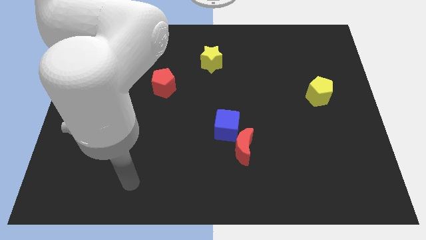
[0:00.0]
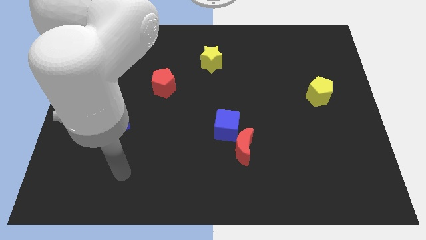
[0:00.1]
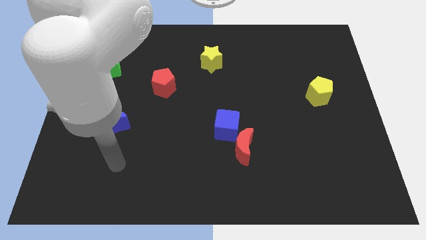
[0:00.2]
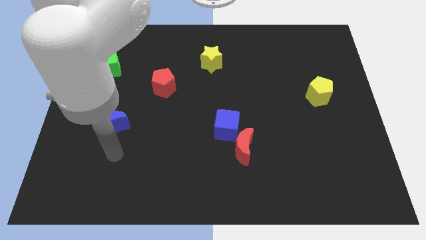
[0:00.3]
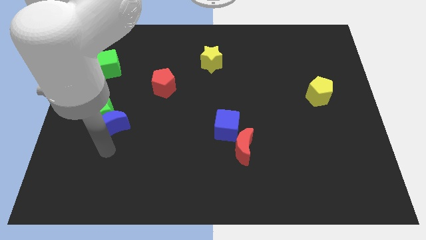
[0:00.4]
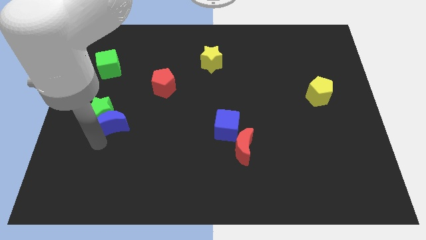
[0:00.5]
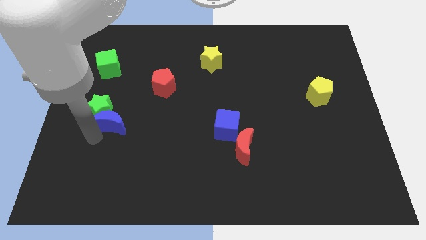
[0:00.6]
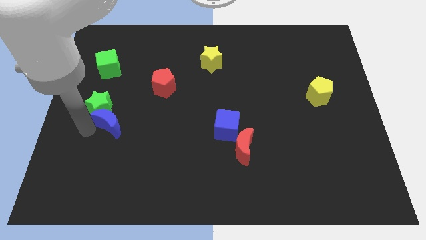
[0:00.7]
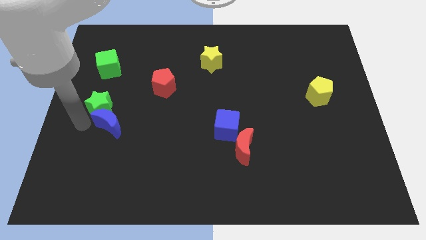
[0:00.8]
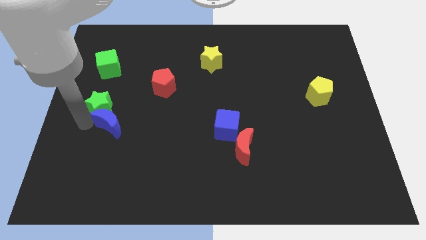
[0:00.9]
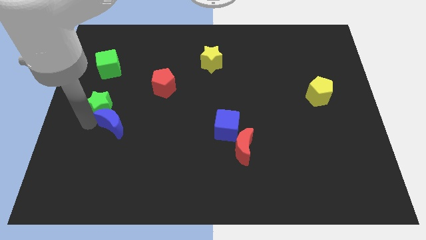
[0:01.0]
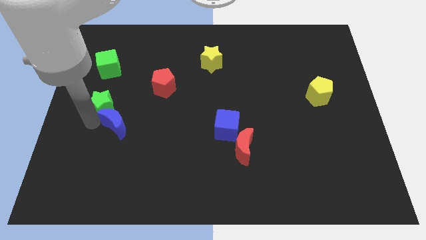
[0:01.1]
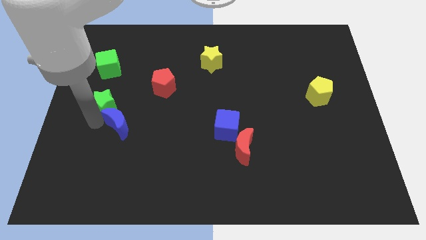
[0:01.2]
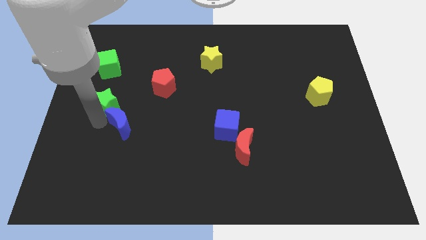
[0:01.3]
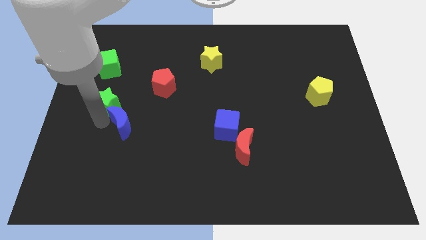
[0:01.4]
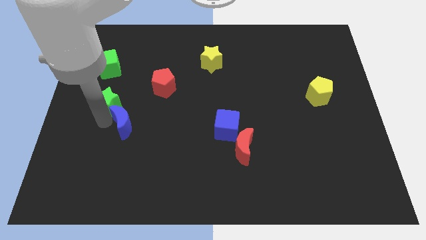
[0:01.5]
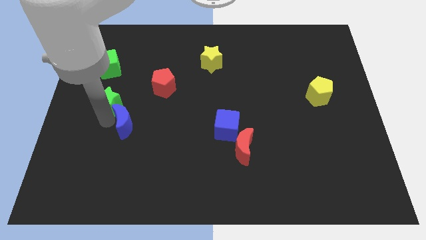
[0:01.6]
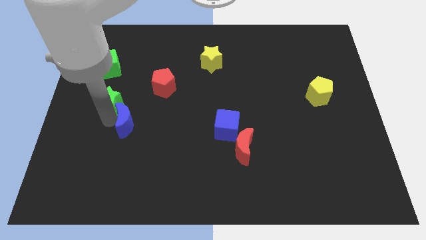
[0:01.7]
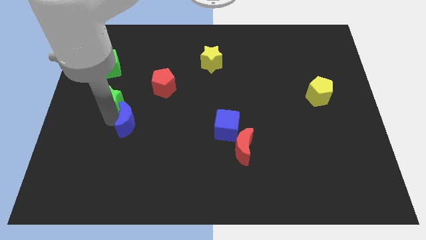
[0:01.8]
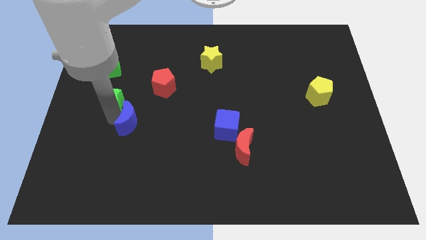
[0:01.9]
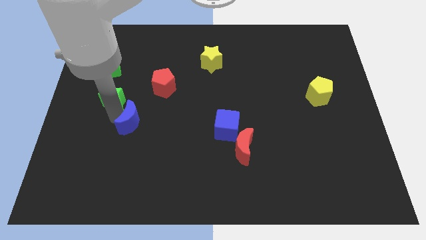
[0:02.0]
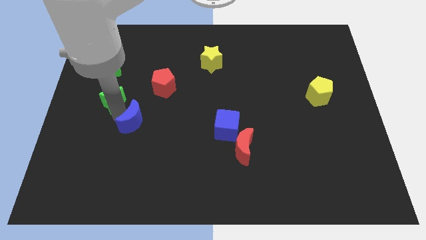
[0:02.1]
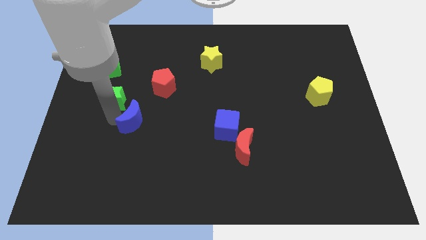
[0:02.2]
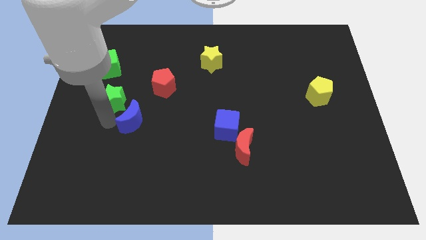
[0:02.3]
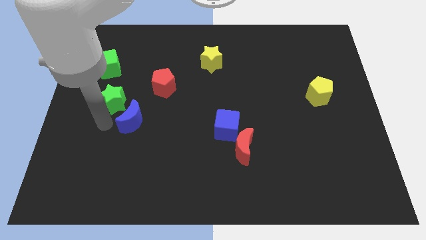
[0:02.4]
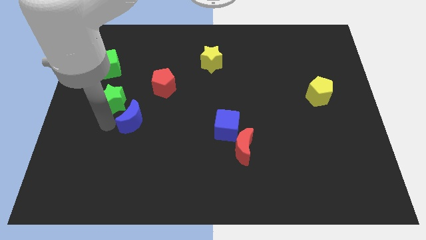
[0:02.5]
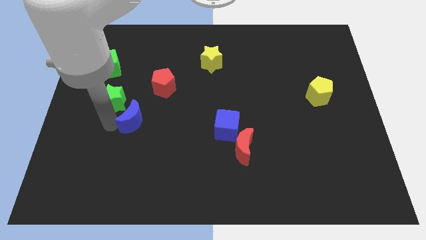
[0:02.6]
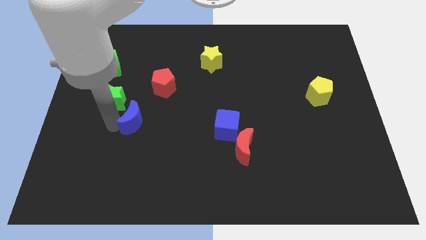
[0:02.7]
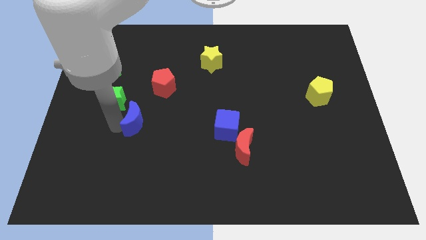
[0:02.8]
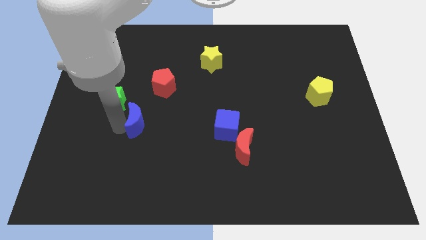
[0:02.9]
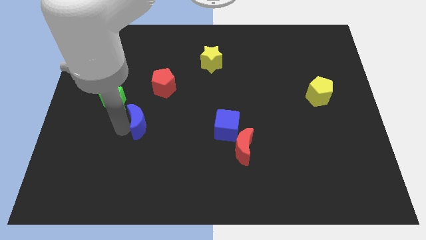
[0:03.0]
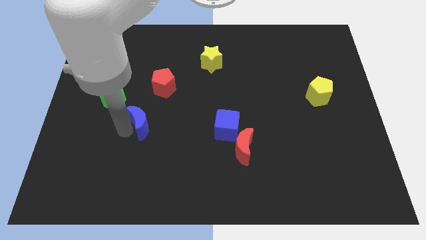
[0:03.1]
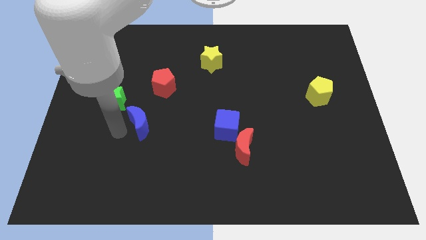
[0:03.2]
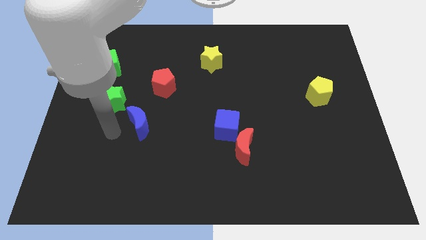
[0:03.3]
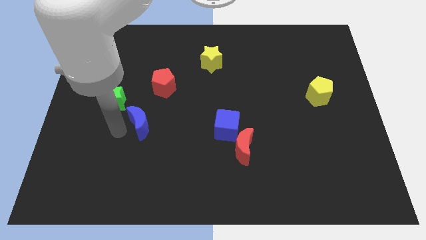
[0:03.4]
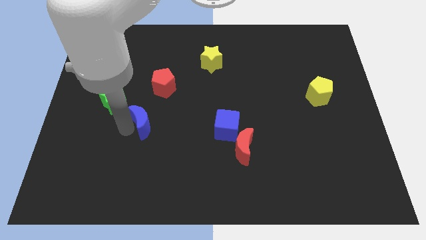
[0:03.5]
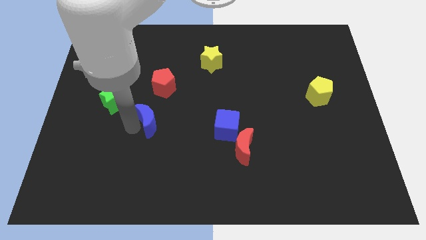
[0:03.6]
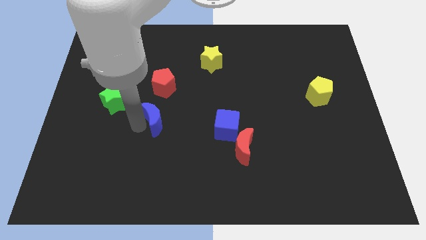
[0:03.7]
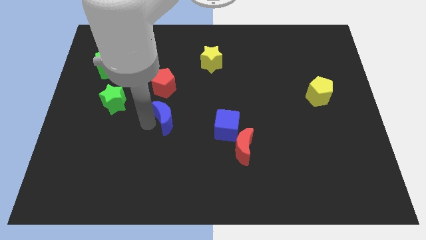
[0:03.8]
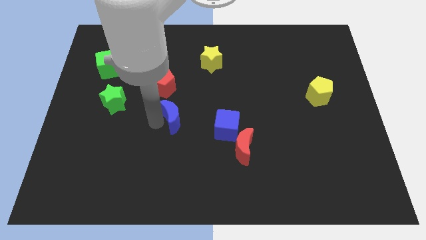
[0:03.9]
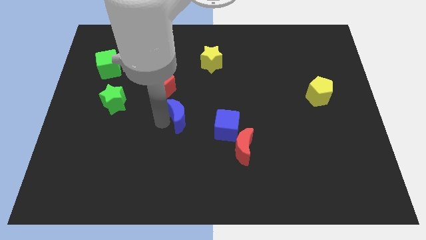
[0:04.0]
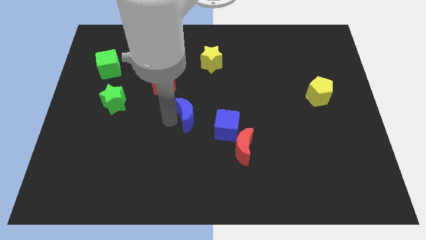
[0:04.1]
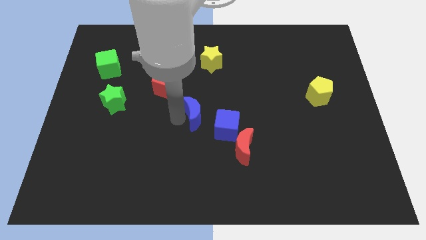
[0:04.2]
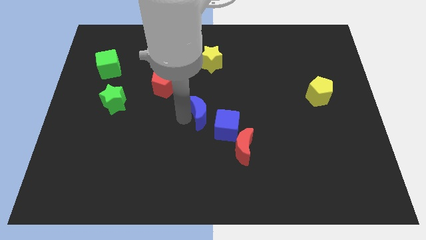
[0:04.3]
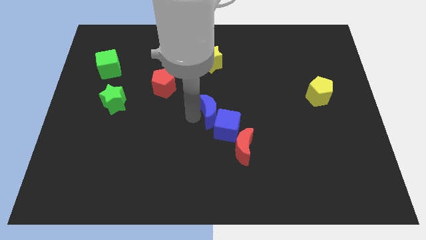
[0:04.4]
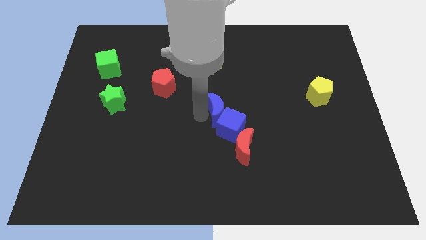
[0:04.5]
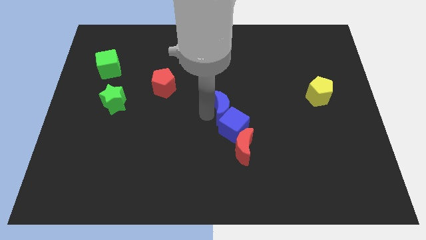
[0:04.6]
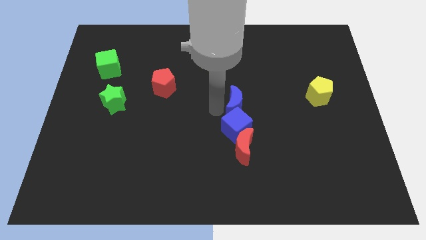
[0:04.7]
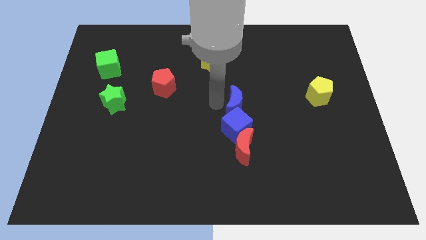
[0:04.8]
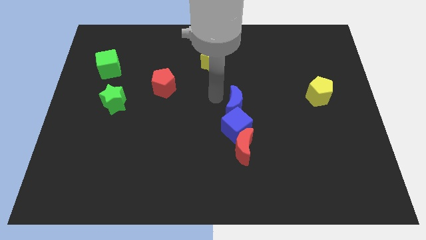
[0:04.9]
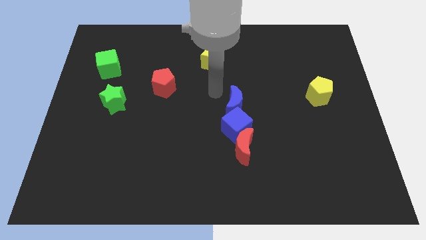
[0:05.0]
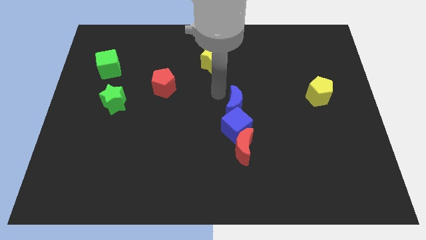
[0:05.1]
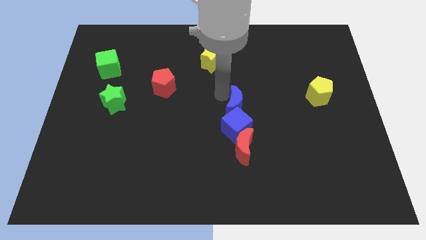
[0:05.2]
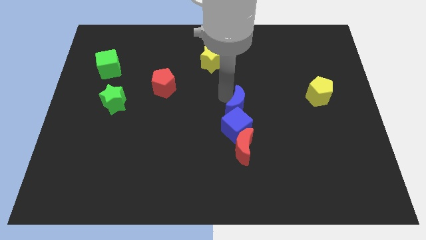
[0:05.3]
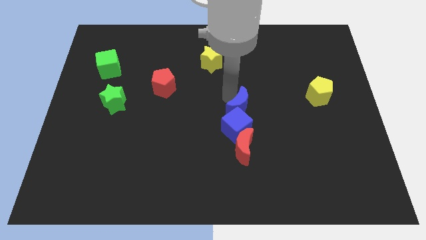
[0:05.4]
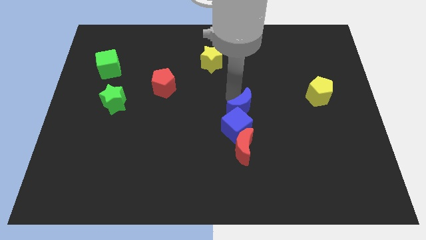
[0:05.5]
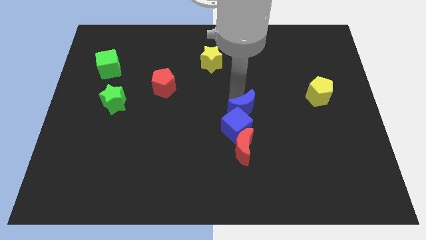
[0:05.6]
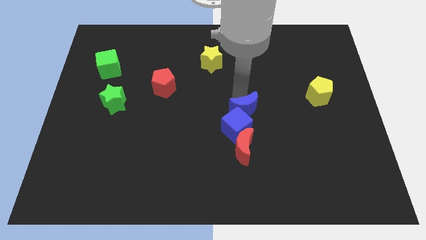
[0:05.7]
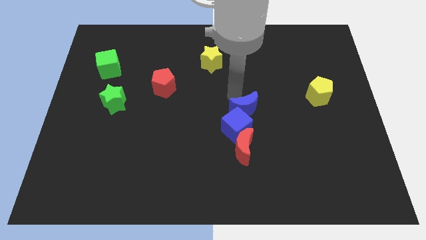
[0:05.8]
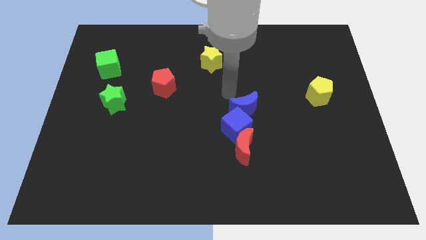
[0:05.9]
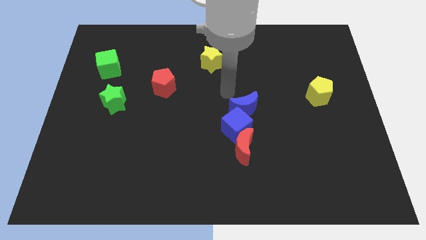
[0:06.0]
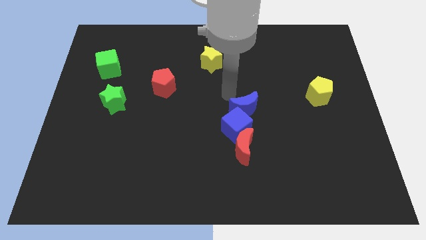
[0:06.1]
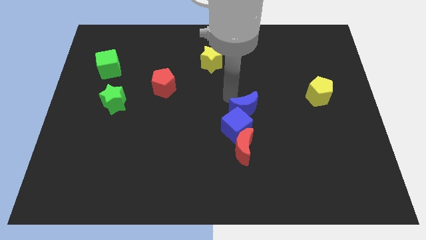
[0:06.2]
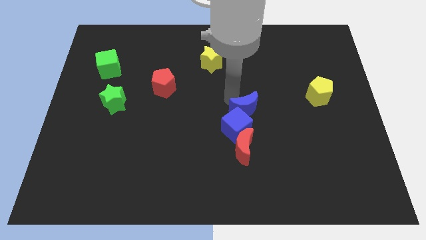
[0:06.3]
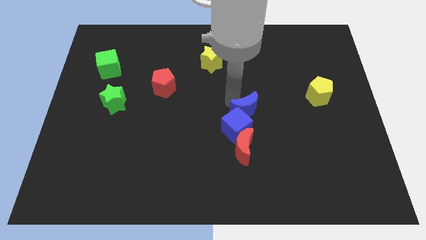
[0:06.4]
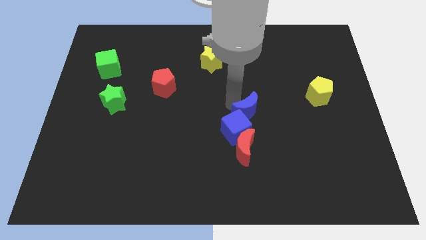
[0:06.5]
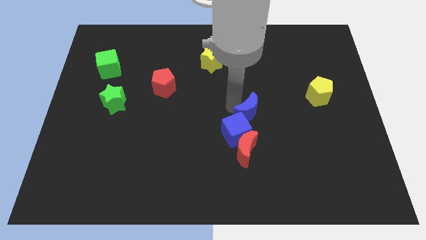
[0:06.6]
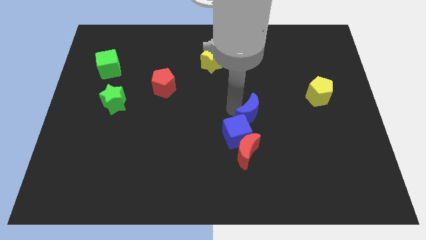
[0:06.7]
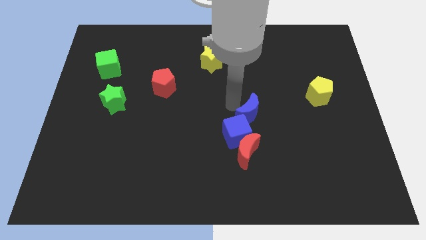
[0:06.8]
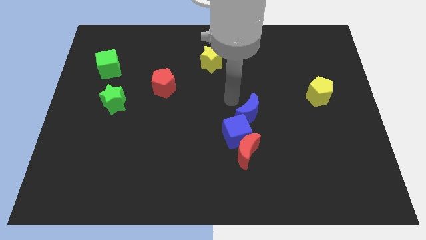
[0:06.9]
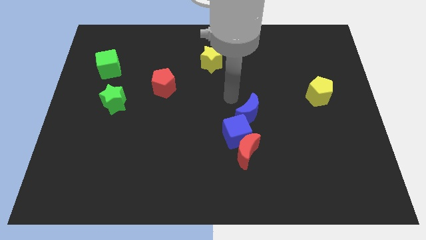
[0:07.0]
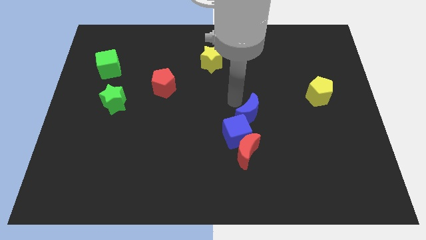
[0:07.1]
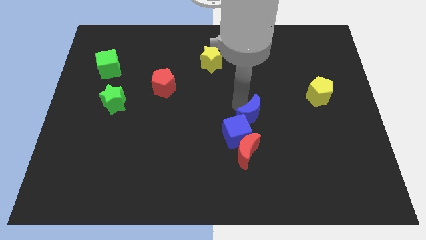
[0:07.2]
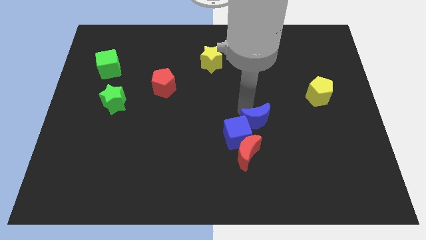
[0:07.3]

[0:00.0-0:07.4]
put the blue moon to the top right side of the red moon
